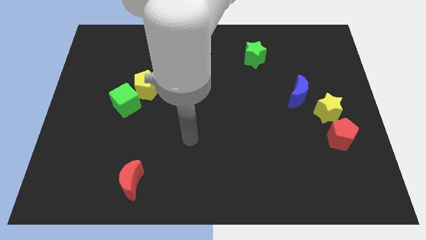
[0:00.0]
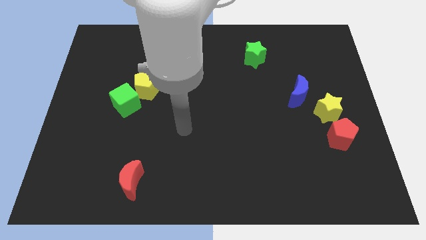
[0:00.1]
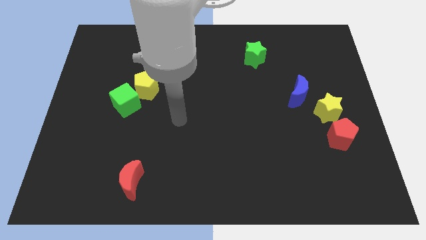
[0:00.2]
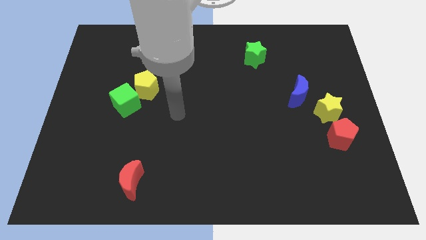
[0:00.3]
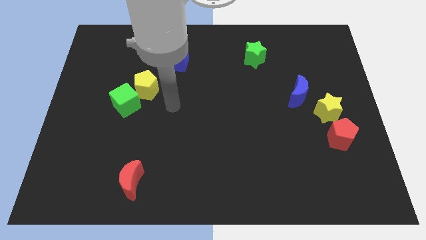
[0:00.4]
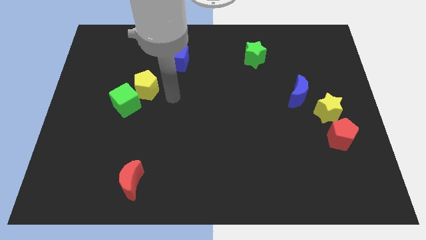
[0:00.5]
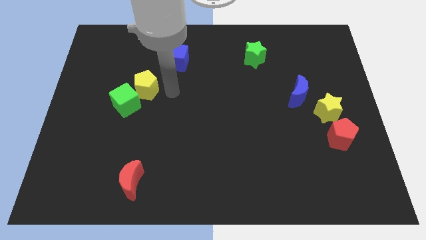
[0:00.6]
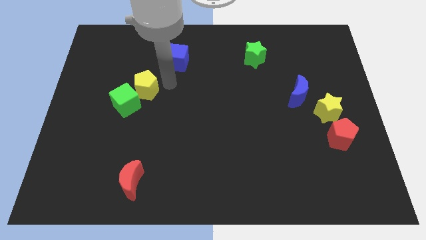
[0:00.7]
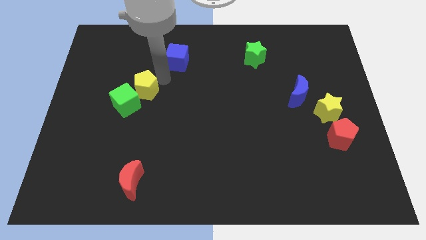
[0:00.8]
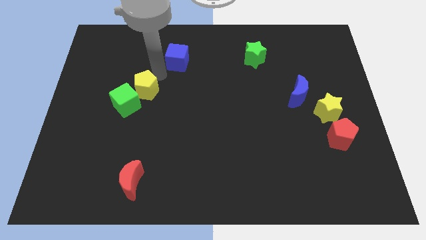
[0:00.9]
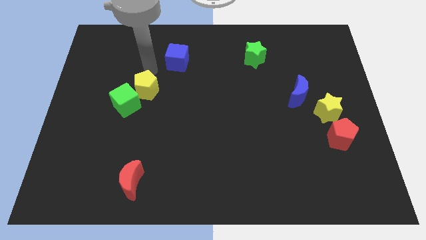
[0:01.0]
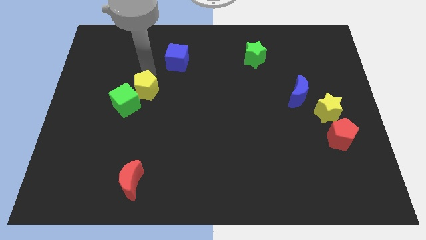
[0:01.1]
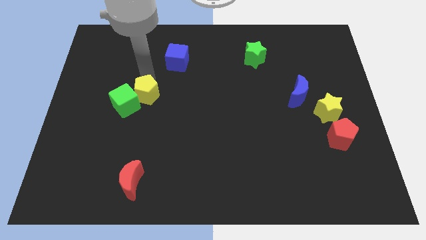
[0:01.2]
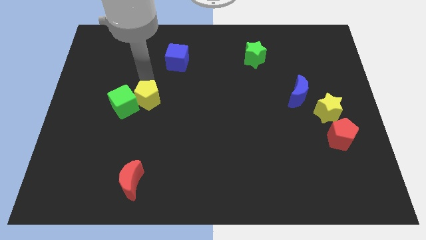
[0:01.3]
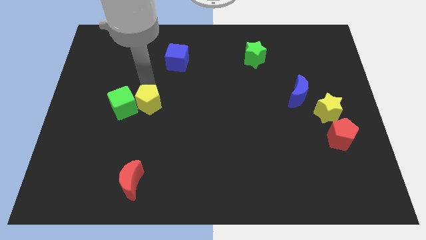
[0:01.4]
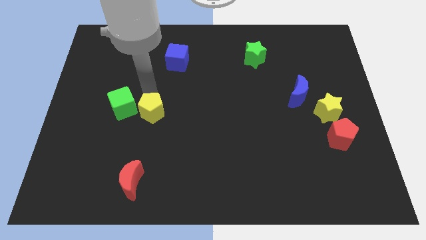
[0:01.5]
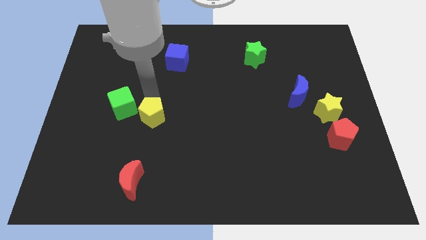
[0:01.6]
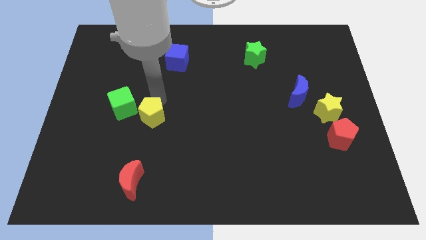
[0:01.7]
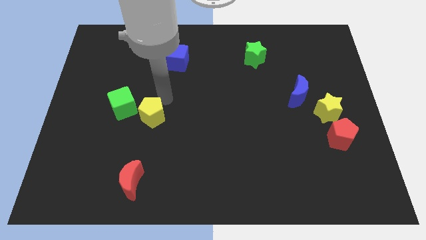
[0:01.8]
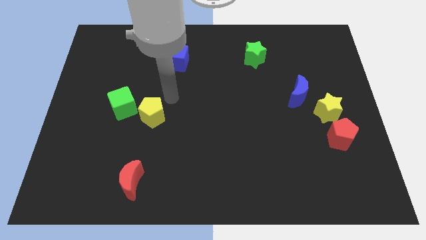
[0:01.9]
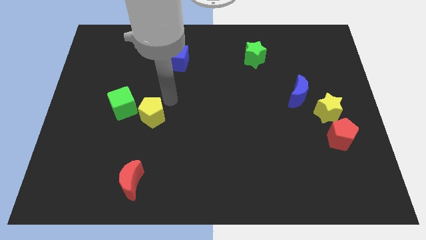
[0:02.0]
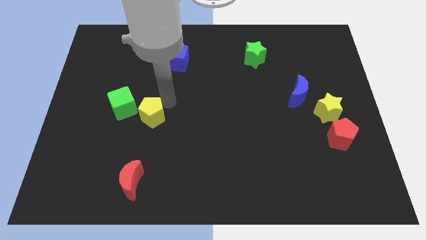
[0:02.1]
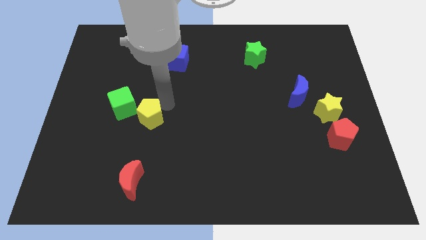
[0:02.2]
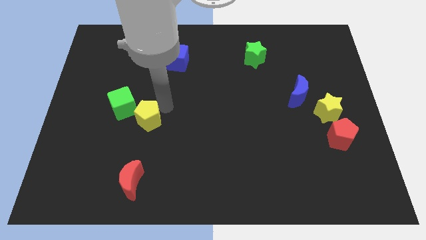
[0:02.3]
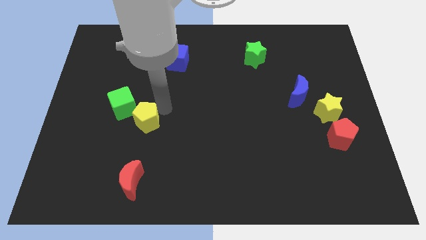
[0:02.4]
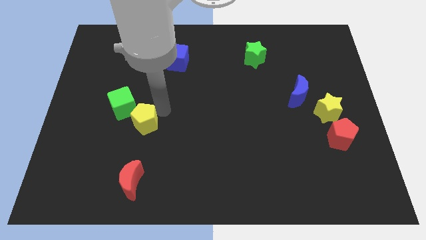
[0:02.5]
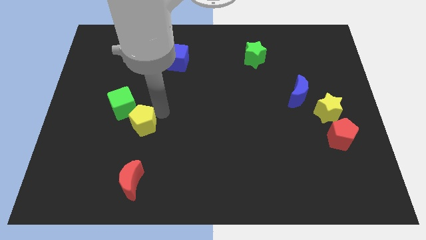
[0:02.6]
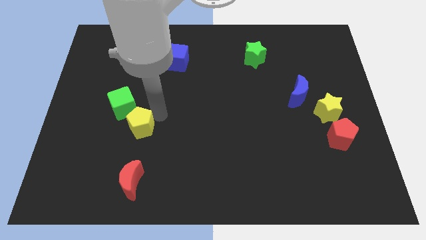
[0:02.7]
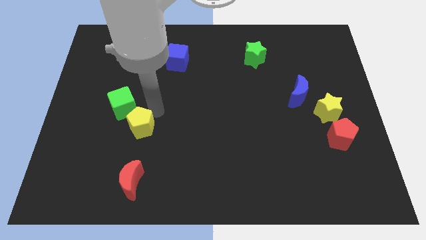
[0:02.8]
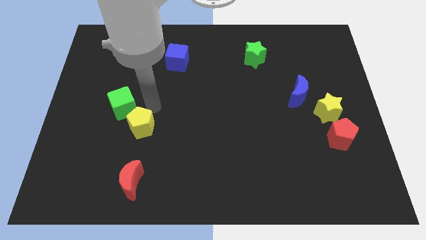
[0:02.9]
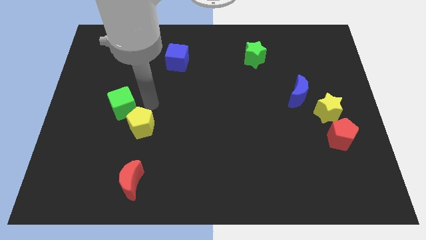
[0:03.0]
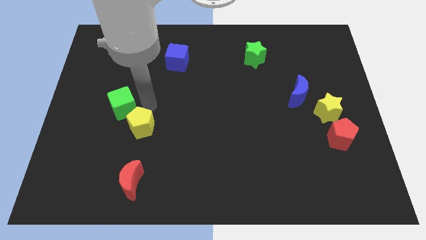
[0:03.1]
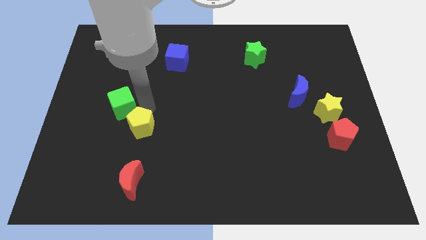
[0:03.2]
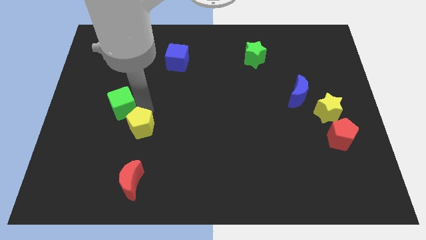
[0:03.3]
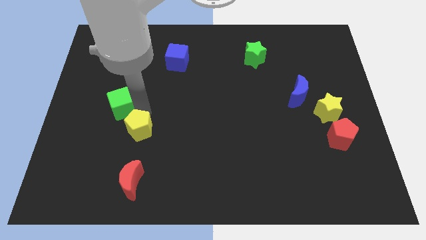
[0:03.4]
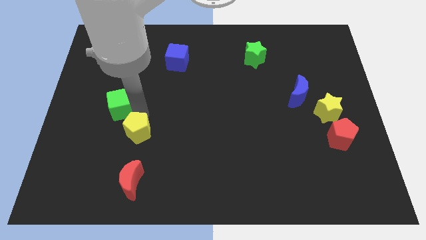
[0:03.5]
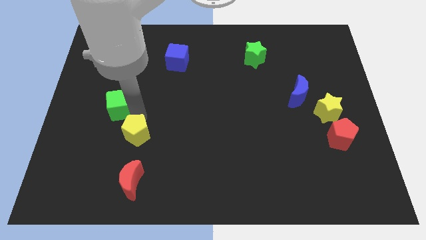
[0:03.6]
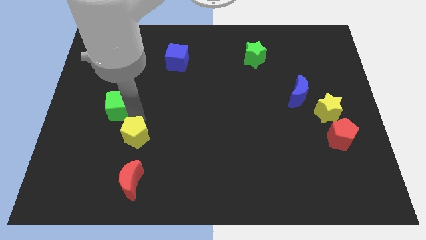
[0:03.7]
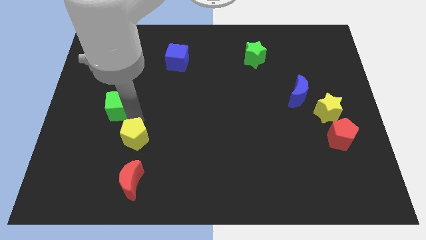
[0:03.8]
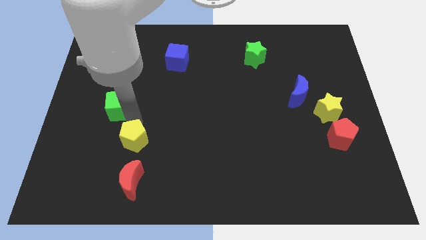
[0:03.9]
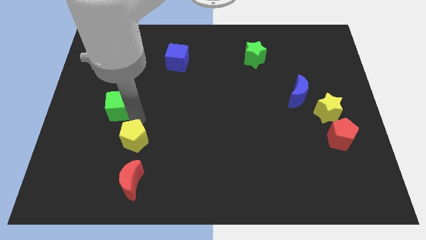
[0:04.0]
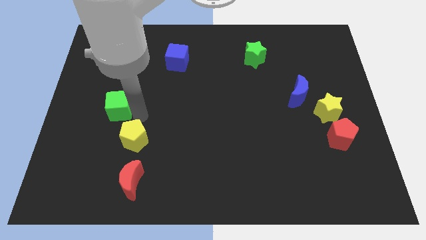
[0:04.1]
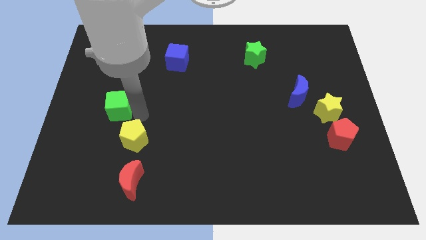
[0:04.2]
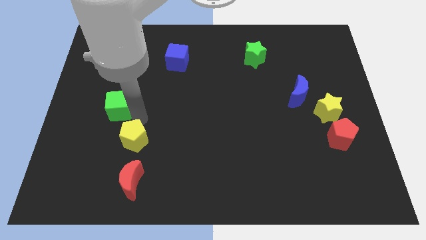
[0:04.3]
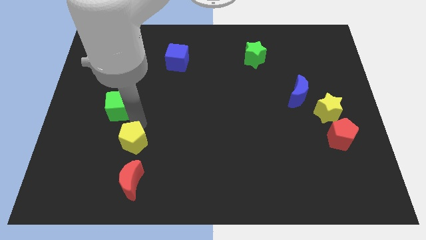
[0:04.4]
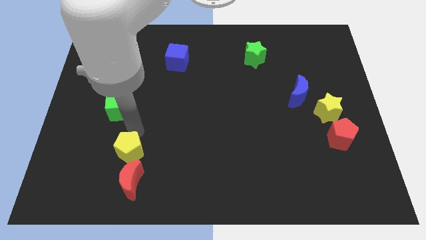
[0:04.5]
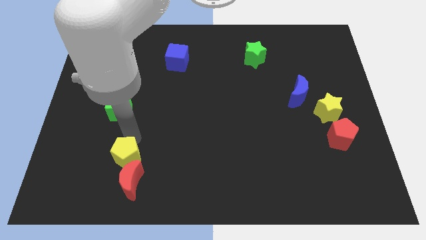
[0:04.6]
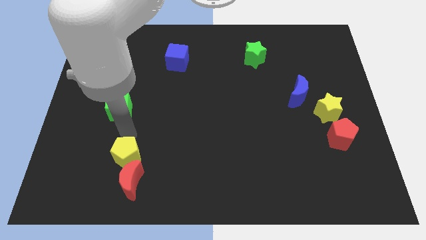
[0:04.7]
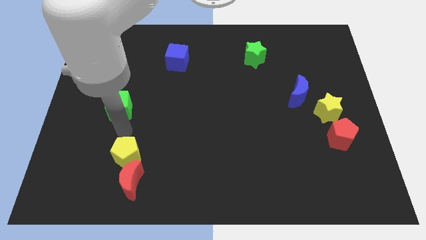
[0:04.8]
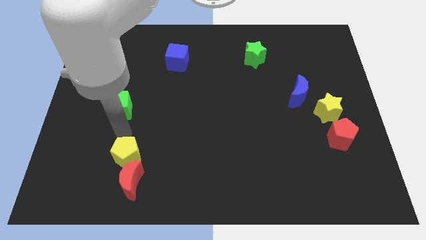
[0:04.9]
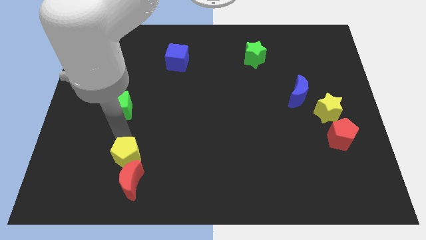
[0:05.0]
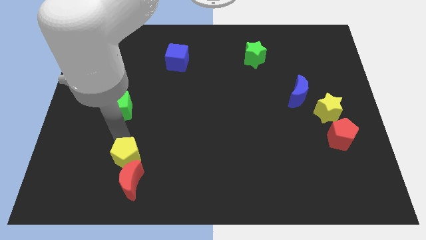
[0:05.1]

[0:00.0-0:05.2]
slide the yellow pentagon close to the red moon

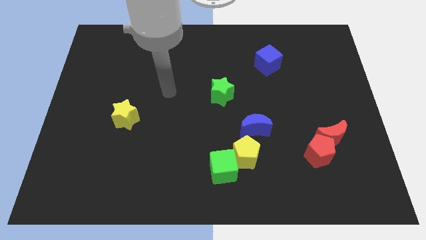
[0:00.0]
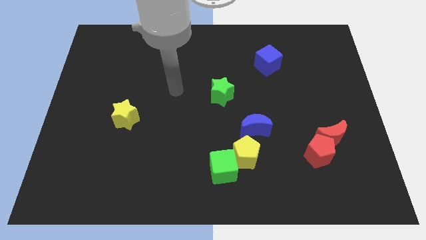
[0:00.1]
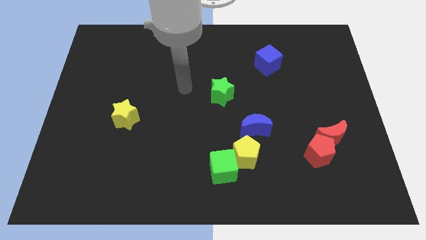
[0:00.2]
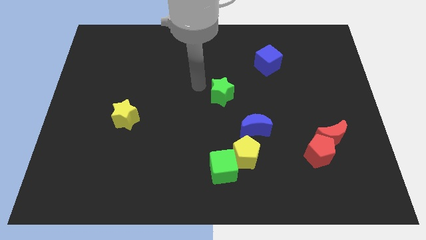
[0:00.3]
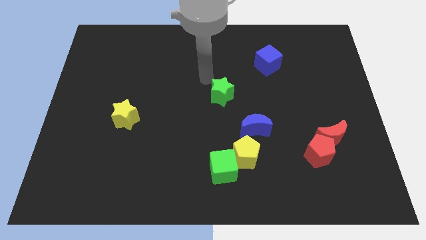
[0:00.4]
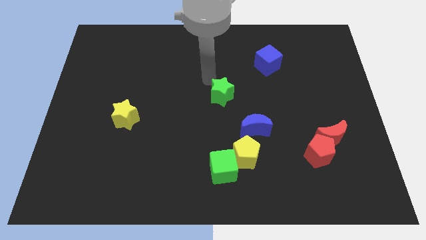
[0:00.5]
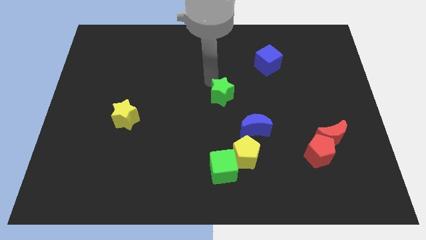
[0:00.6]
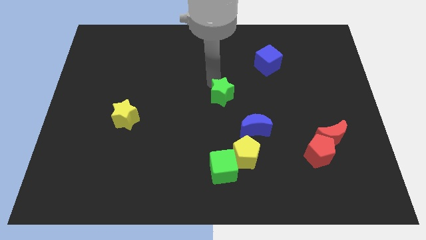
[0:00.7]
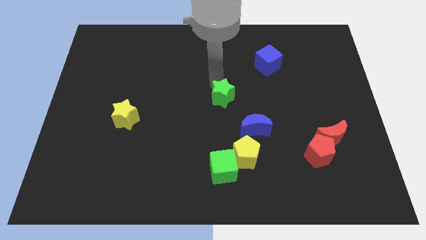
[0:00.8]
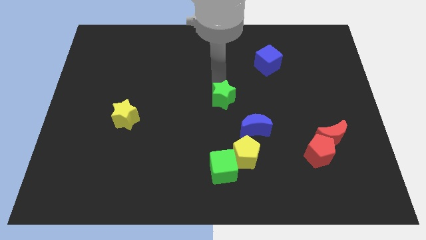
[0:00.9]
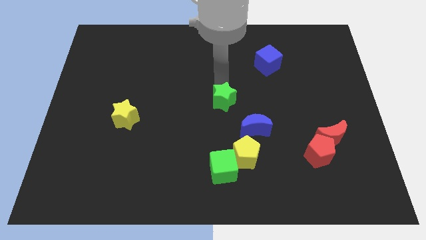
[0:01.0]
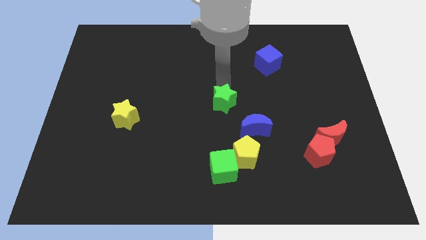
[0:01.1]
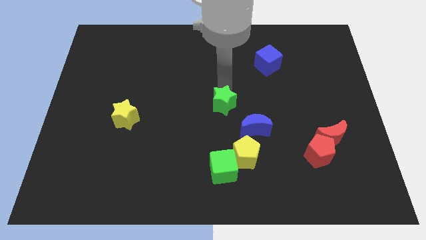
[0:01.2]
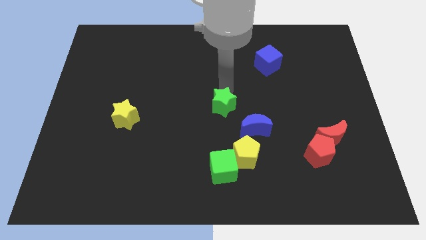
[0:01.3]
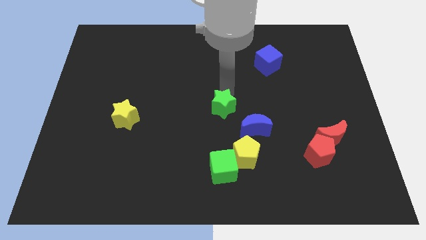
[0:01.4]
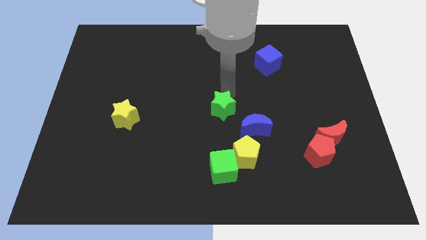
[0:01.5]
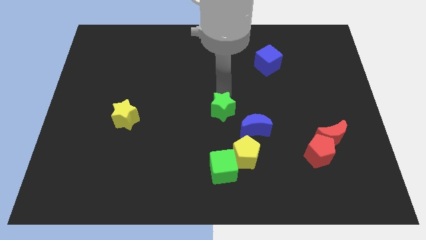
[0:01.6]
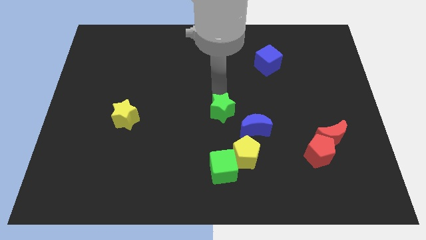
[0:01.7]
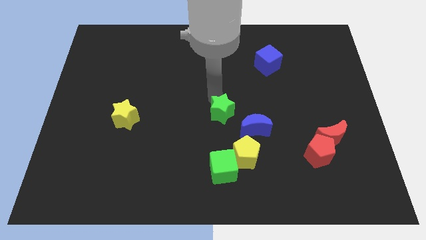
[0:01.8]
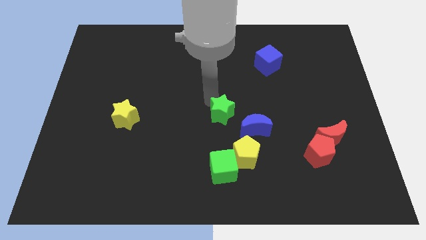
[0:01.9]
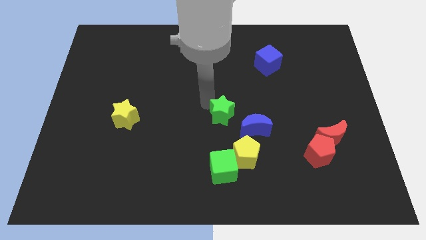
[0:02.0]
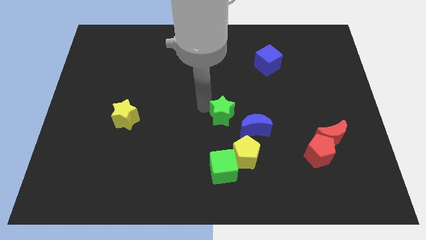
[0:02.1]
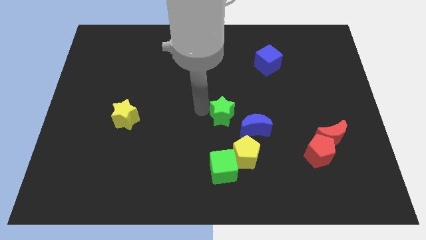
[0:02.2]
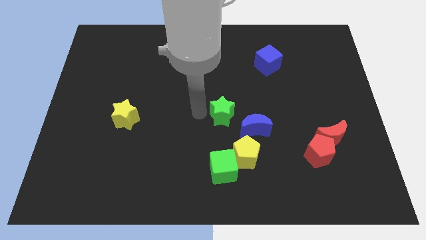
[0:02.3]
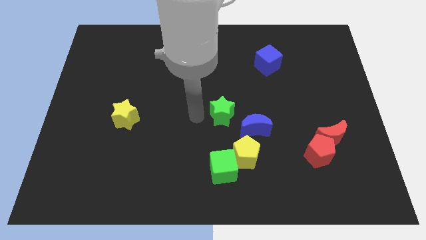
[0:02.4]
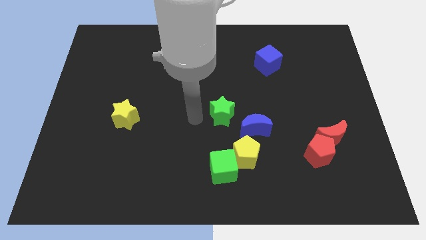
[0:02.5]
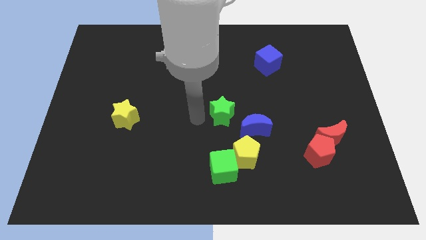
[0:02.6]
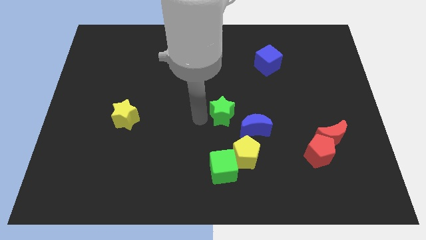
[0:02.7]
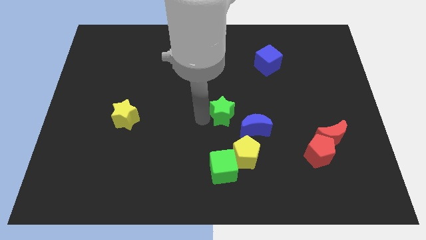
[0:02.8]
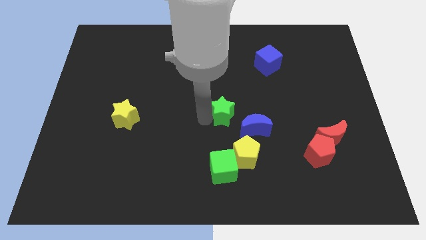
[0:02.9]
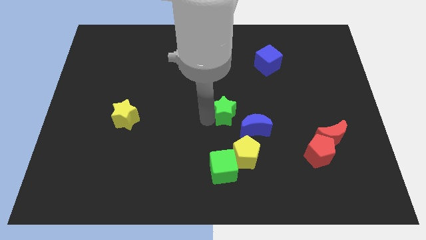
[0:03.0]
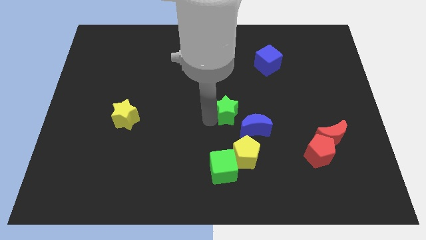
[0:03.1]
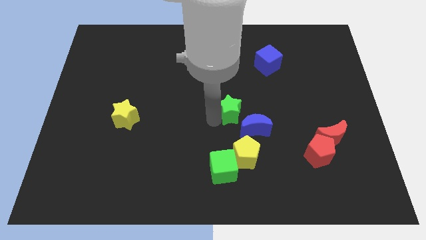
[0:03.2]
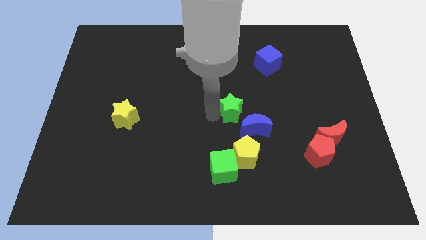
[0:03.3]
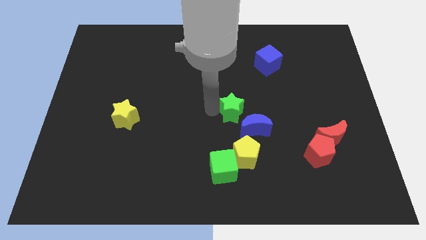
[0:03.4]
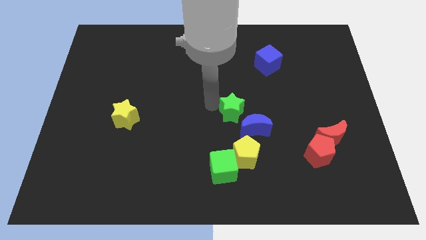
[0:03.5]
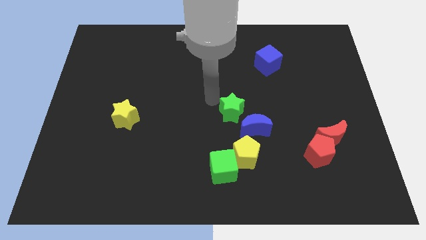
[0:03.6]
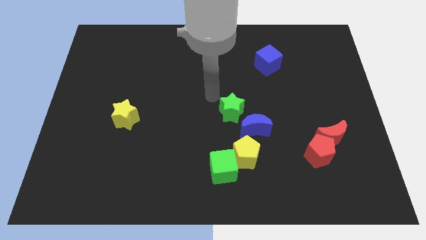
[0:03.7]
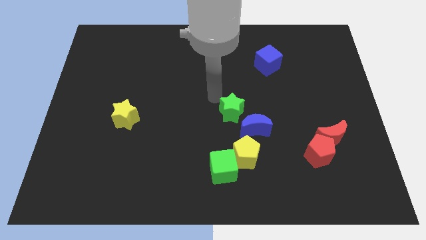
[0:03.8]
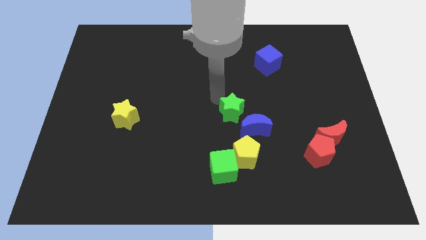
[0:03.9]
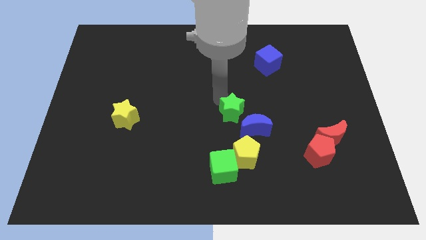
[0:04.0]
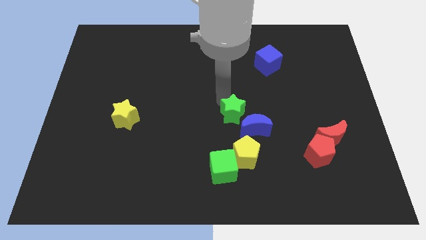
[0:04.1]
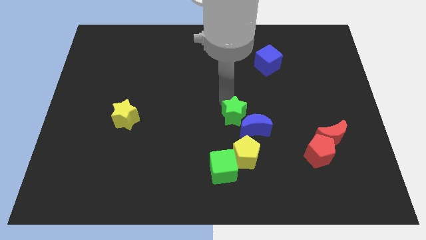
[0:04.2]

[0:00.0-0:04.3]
move the green star next to the blue moon
